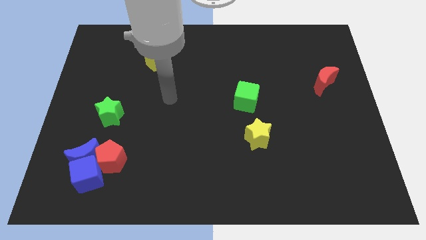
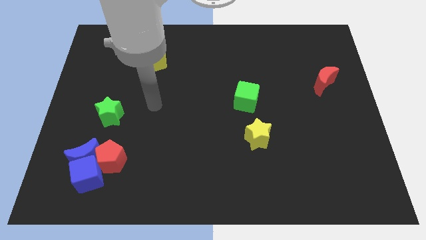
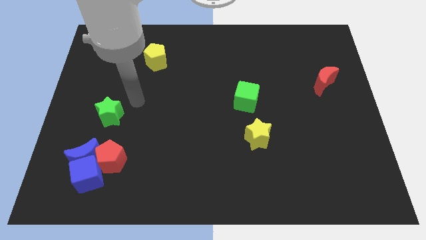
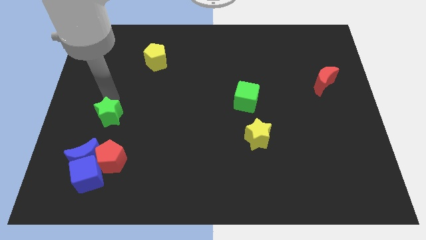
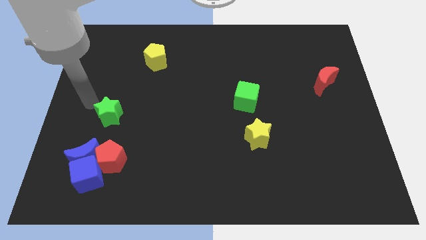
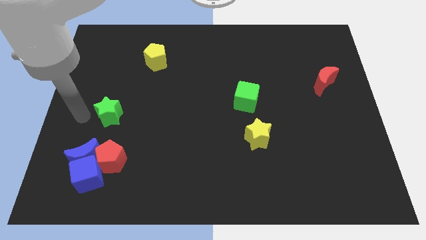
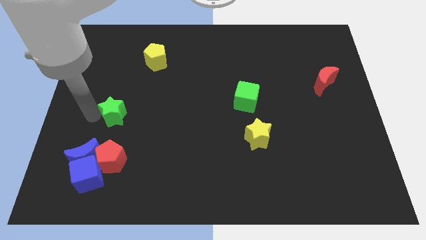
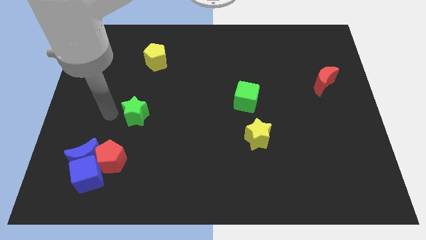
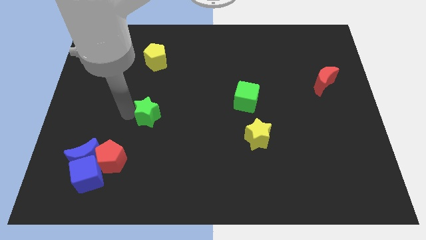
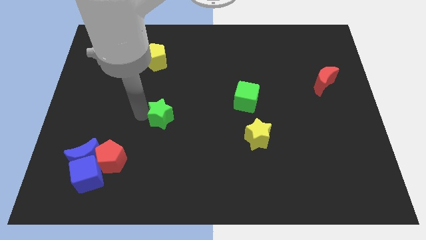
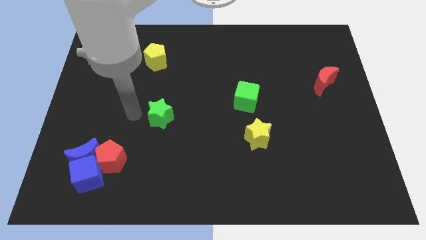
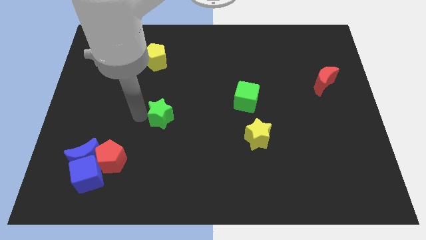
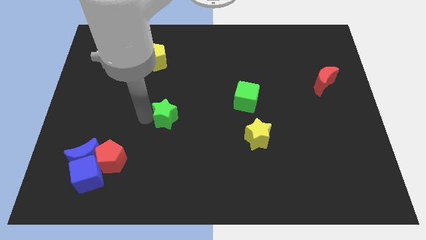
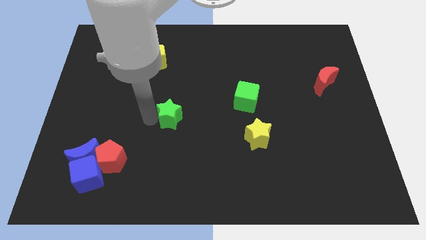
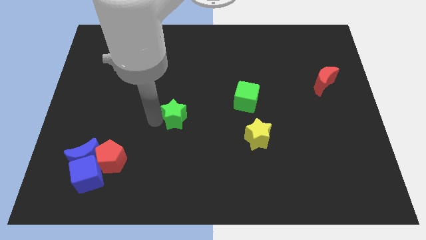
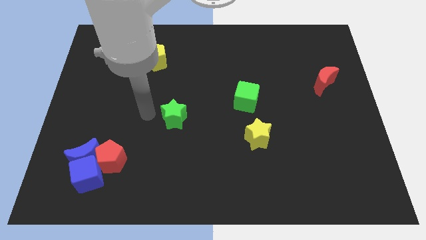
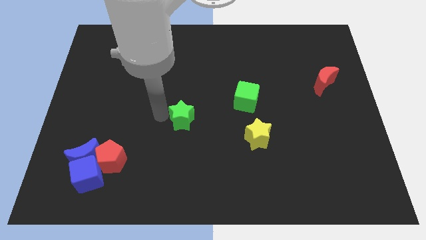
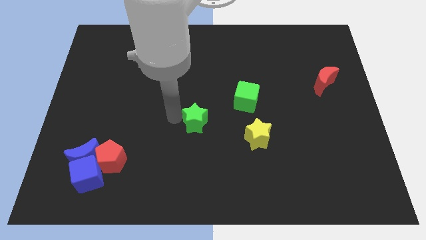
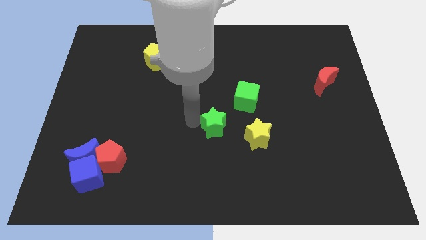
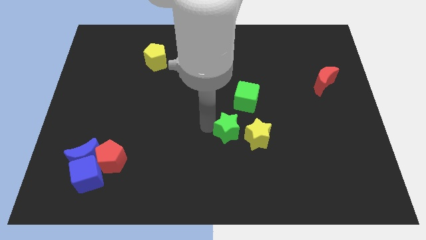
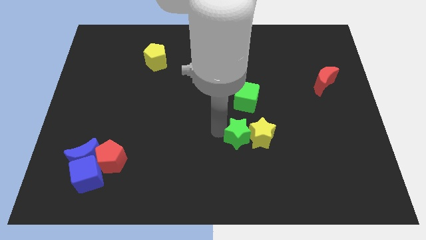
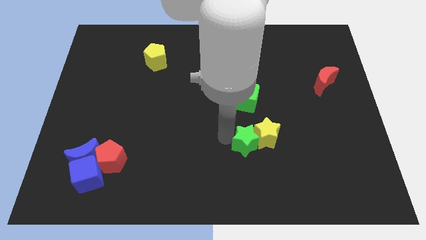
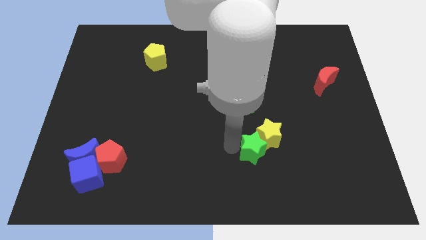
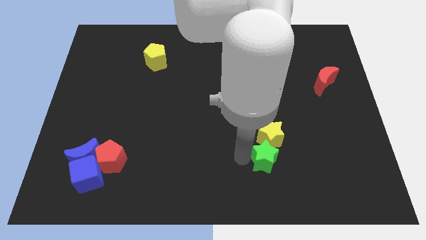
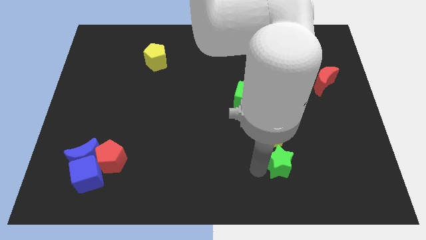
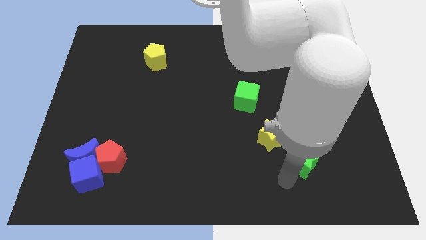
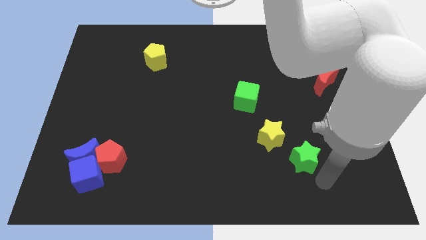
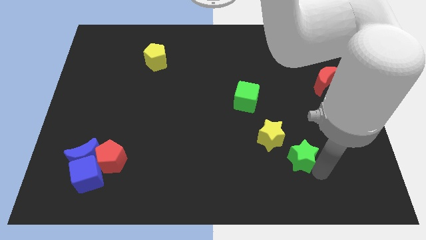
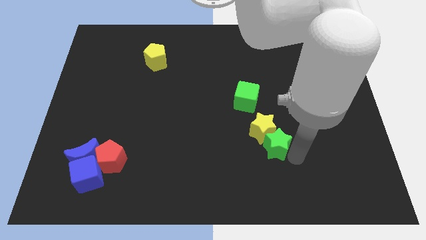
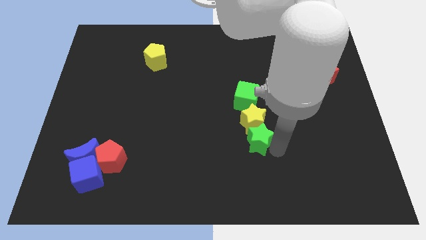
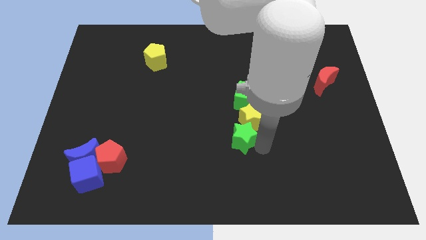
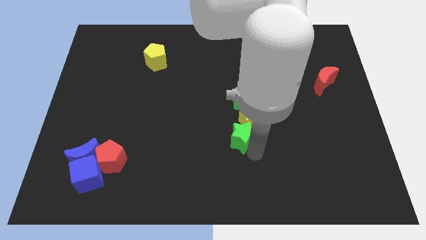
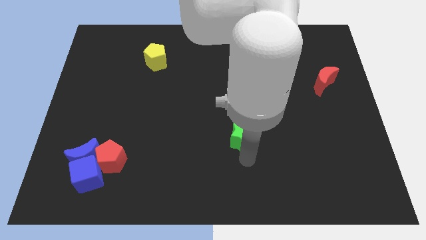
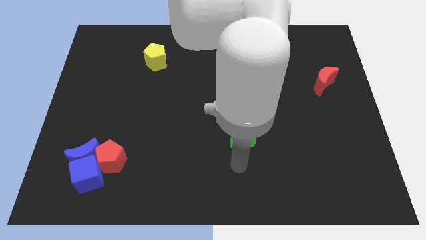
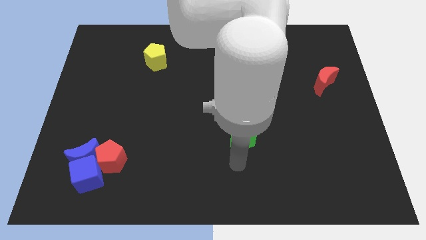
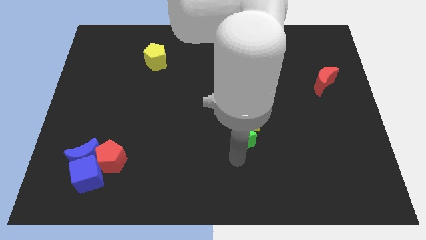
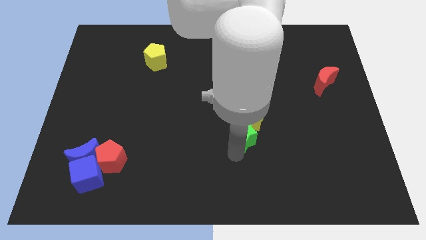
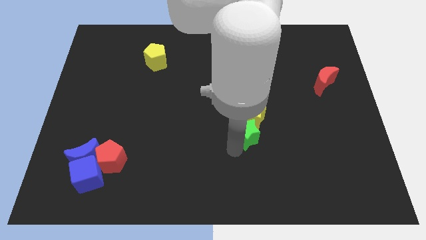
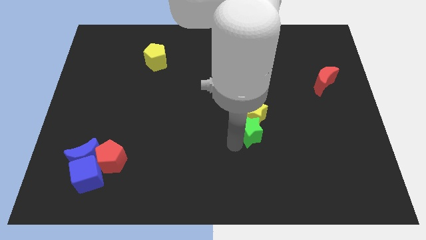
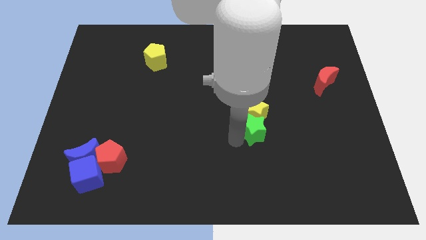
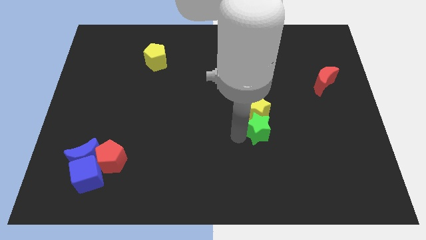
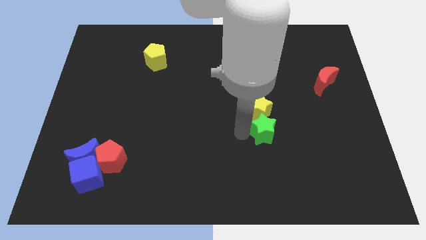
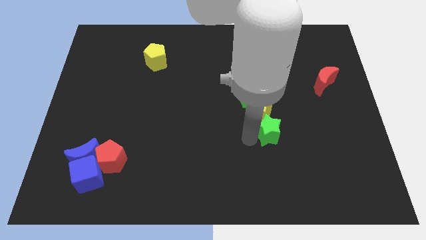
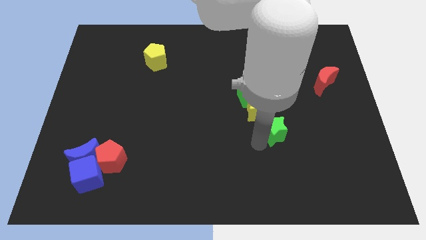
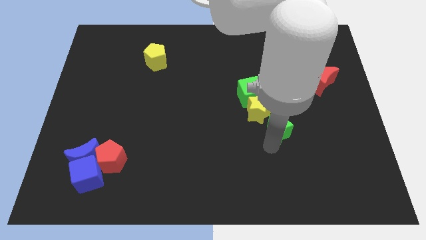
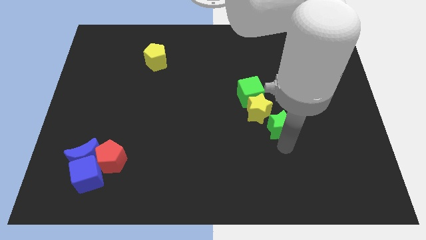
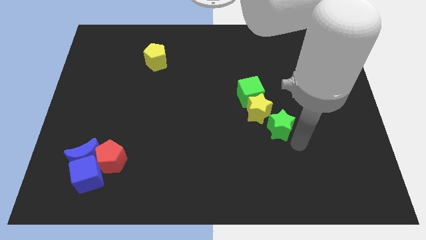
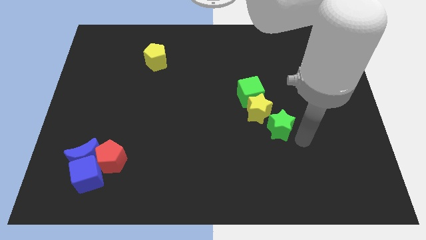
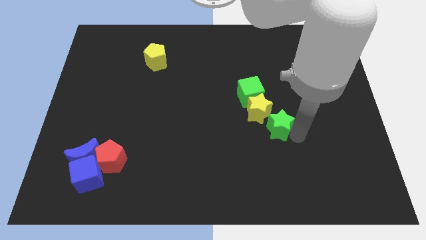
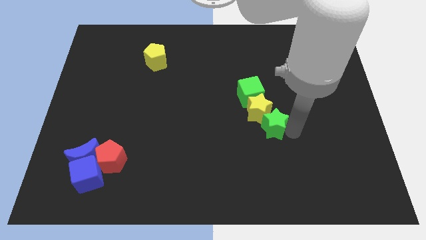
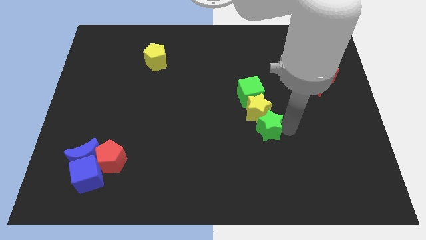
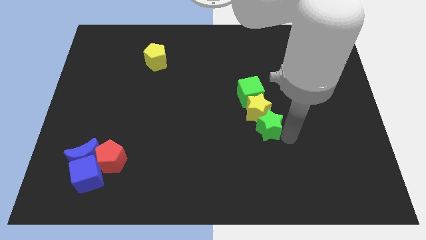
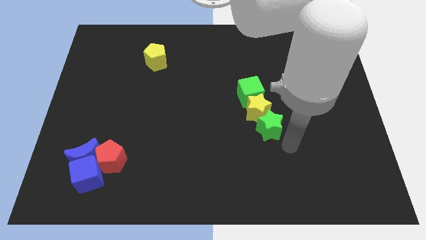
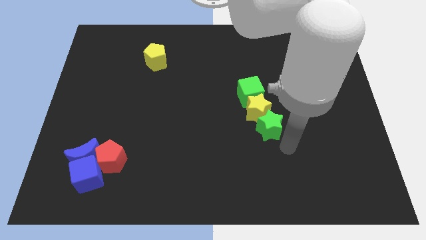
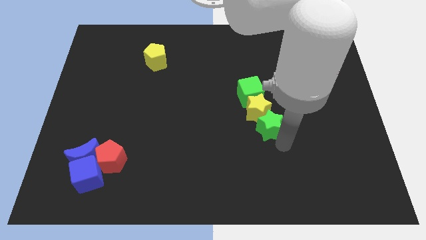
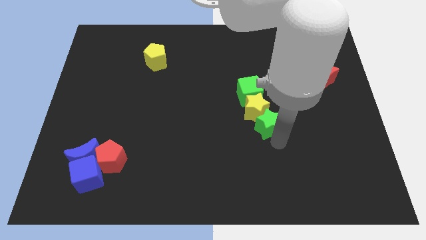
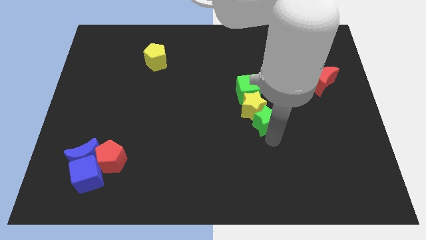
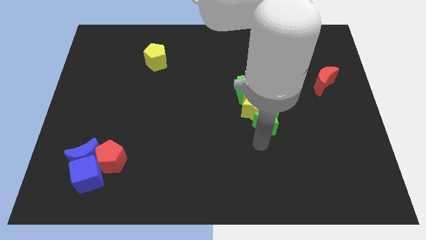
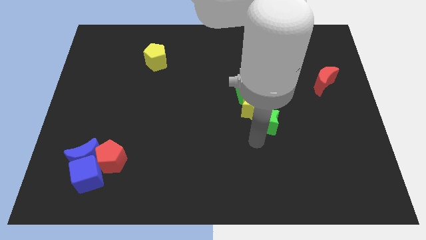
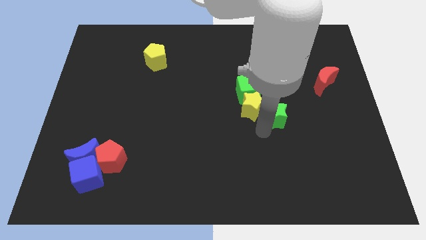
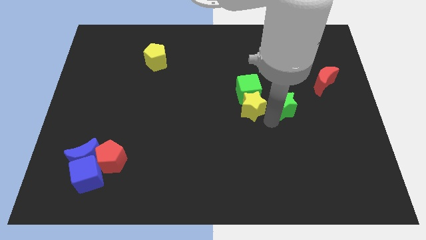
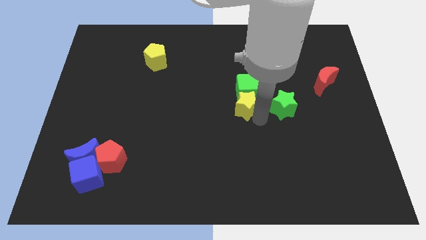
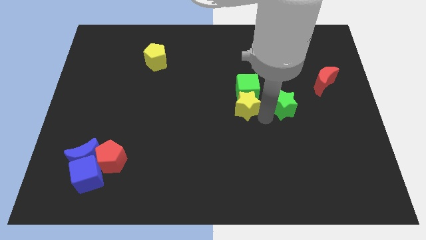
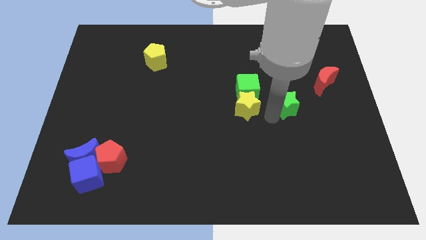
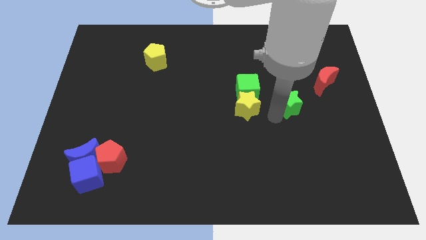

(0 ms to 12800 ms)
slide the green star diagonally down and to the left of the red moon
